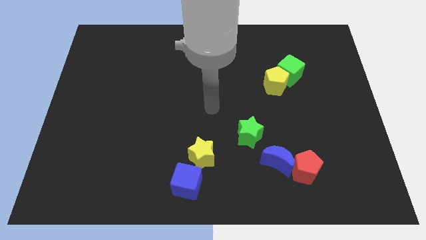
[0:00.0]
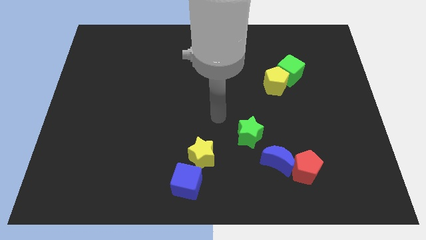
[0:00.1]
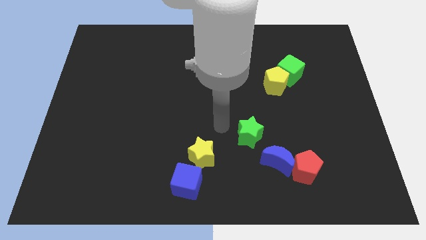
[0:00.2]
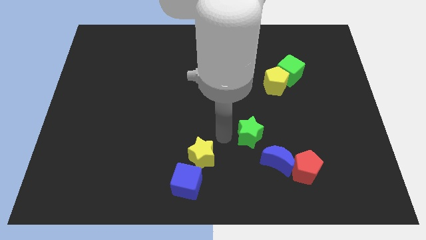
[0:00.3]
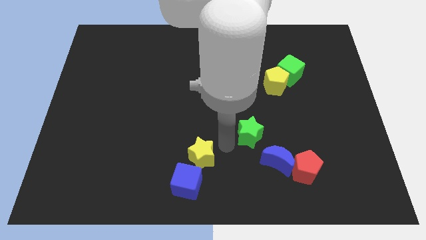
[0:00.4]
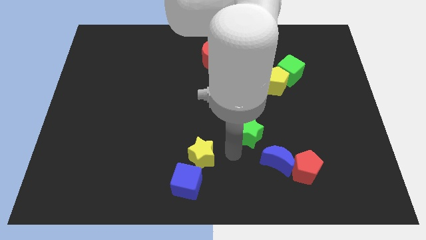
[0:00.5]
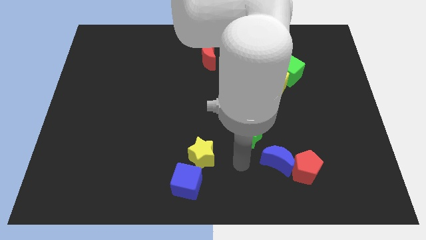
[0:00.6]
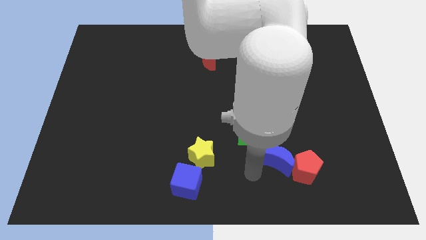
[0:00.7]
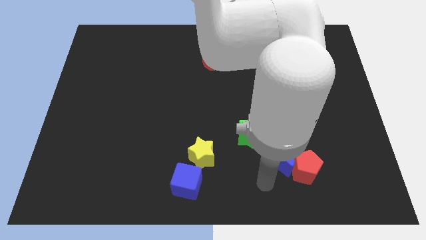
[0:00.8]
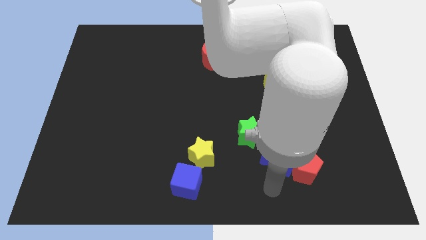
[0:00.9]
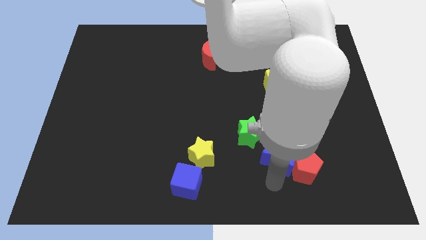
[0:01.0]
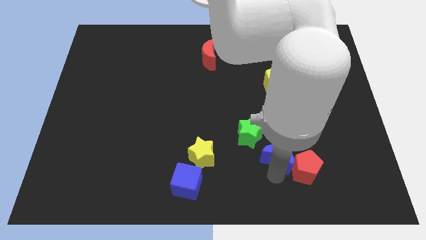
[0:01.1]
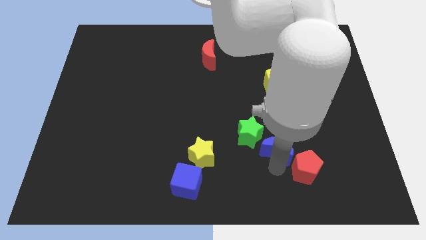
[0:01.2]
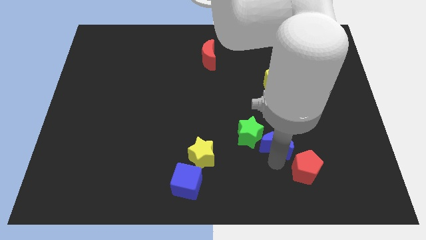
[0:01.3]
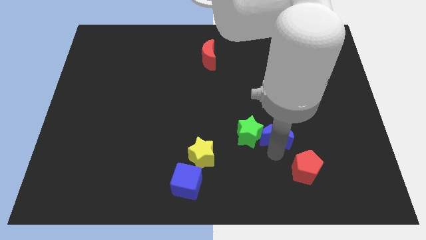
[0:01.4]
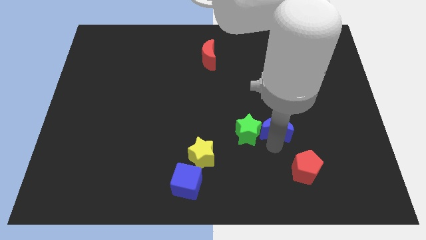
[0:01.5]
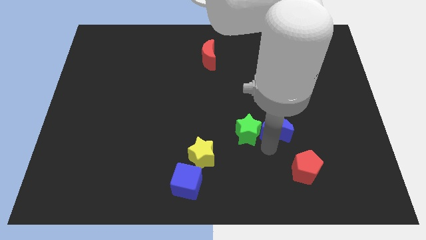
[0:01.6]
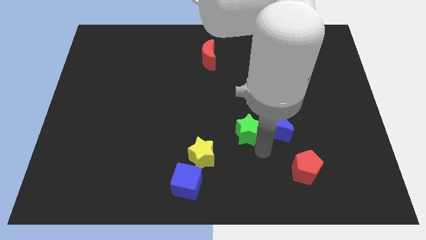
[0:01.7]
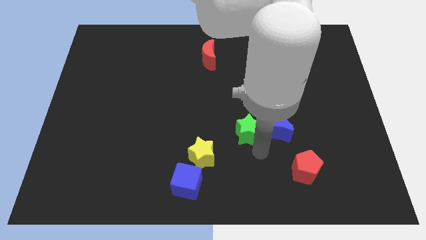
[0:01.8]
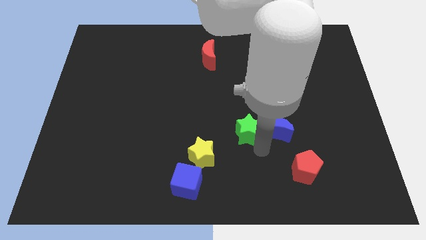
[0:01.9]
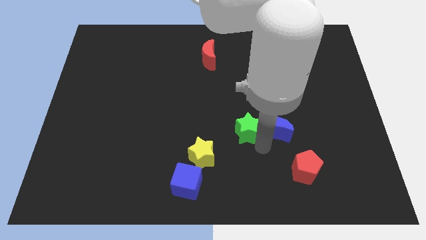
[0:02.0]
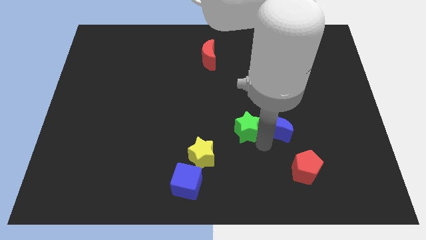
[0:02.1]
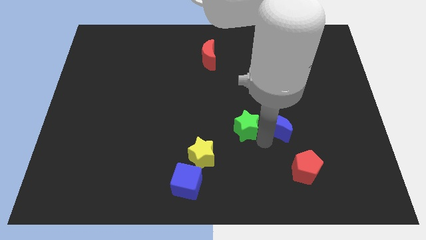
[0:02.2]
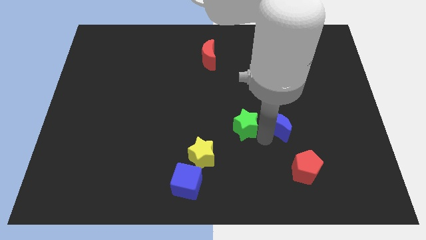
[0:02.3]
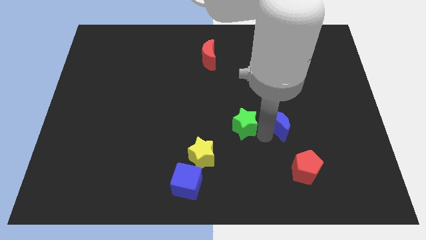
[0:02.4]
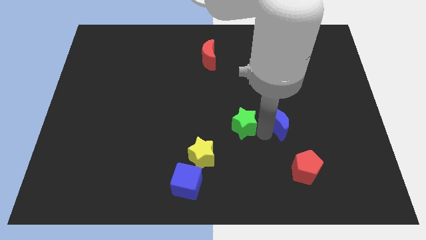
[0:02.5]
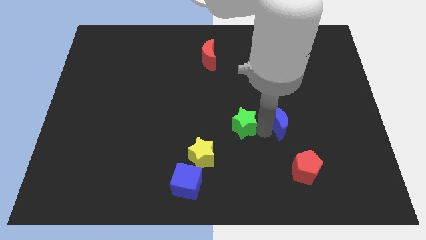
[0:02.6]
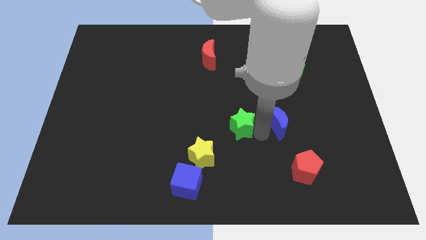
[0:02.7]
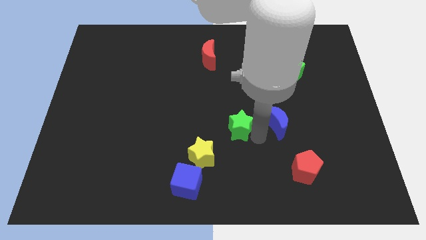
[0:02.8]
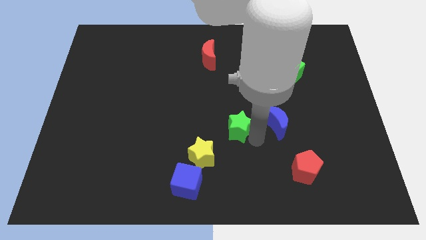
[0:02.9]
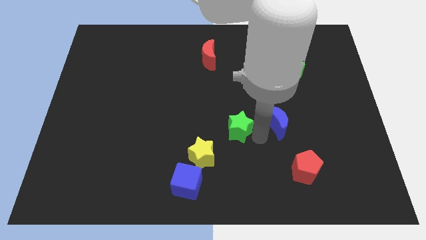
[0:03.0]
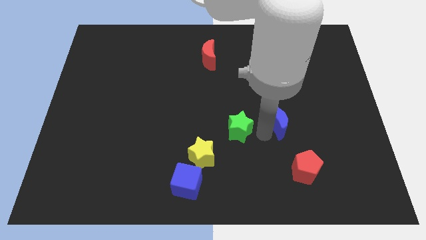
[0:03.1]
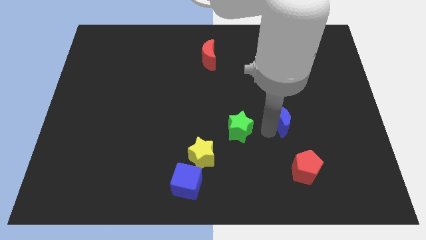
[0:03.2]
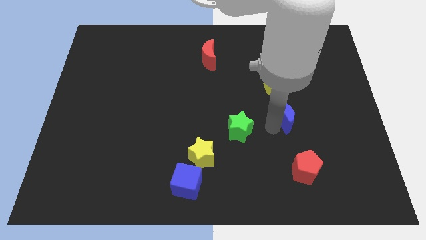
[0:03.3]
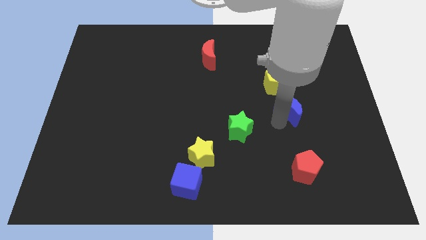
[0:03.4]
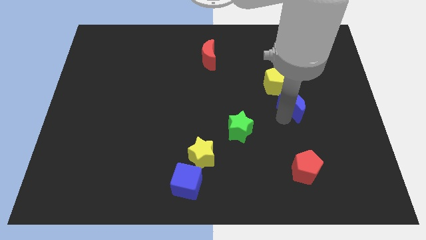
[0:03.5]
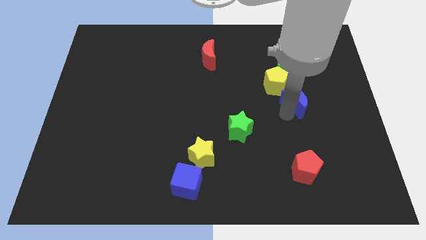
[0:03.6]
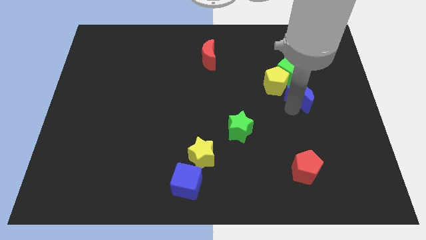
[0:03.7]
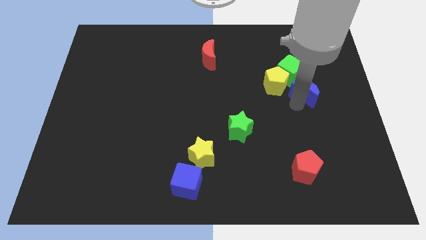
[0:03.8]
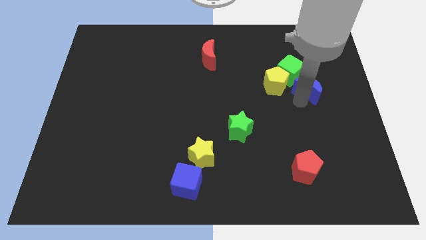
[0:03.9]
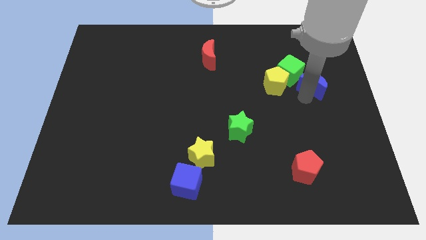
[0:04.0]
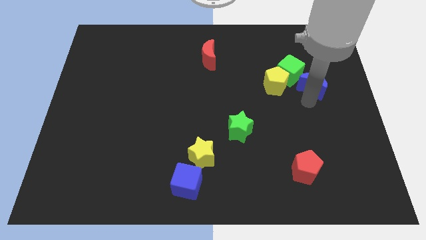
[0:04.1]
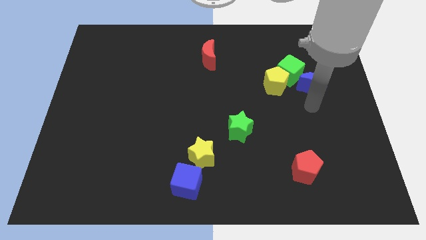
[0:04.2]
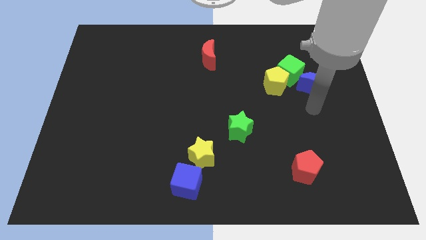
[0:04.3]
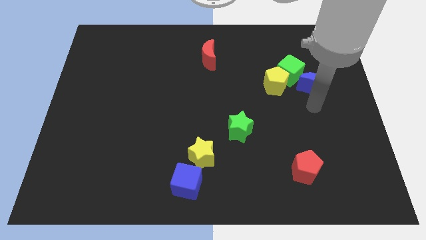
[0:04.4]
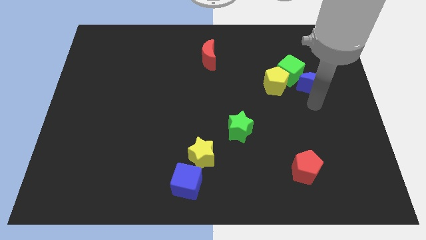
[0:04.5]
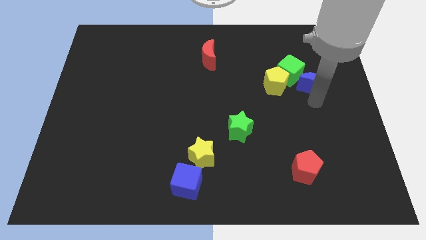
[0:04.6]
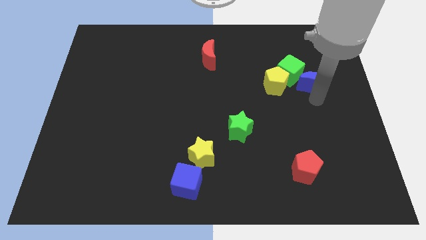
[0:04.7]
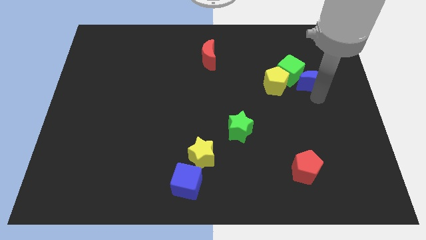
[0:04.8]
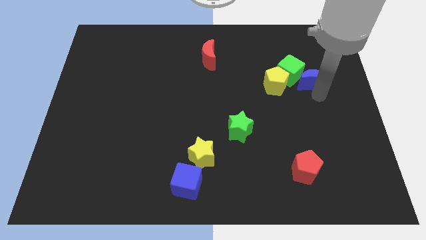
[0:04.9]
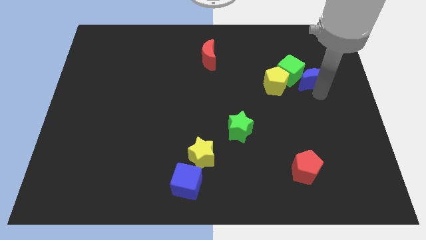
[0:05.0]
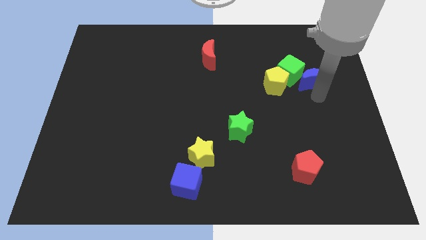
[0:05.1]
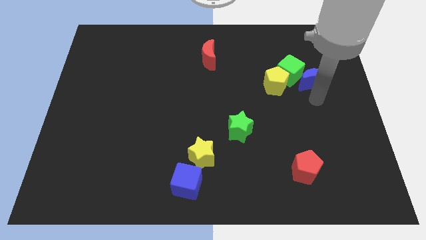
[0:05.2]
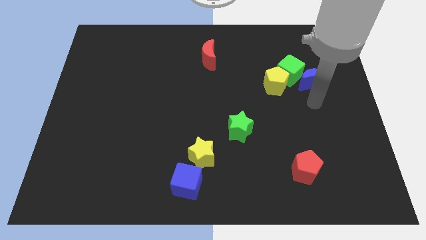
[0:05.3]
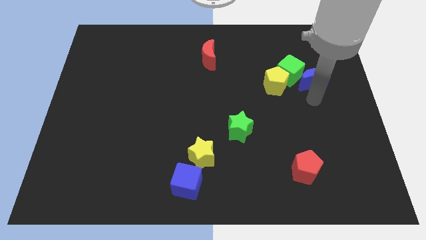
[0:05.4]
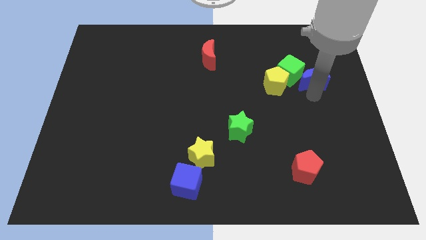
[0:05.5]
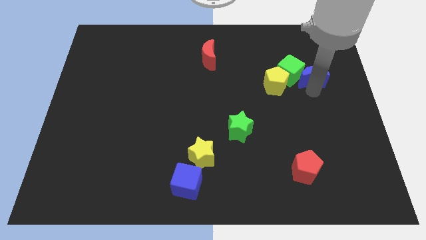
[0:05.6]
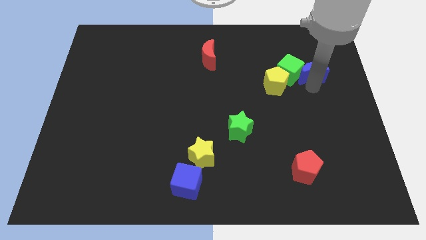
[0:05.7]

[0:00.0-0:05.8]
slide the blue moon diagonally up and to the right of the green cube
